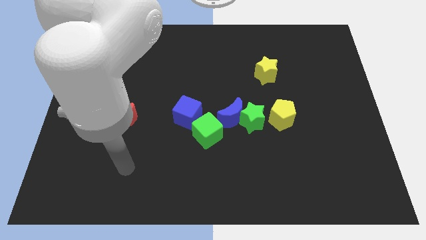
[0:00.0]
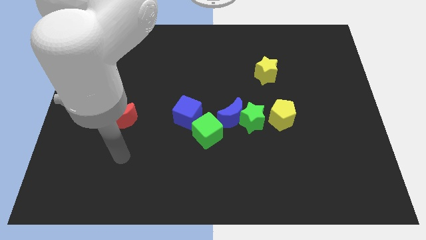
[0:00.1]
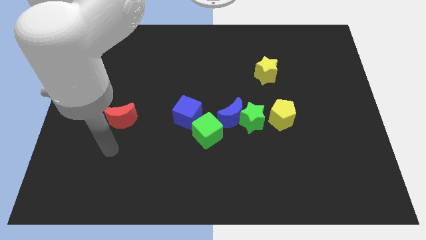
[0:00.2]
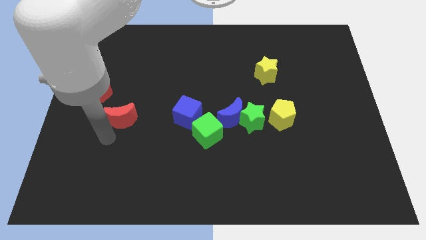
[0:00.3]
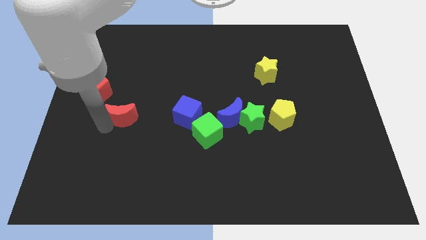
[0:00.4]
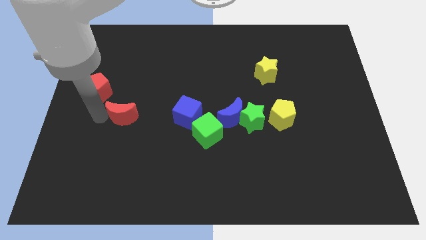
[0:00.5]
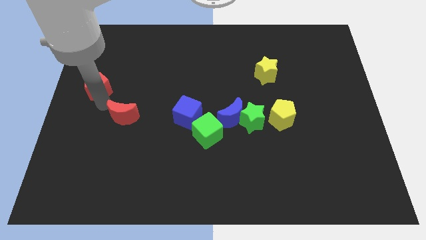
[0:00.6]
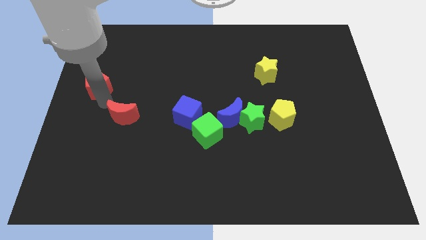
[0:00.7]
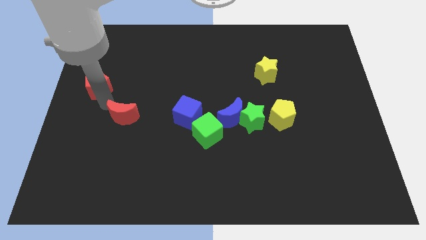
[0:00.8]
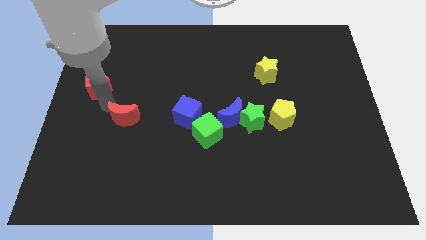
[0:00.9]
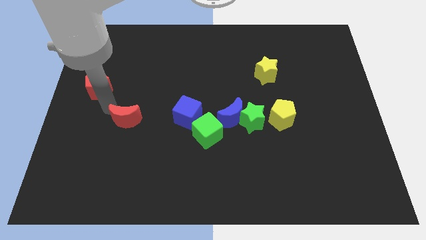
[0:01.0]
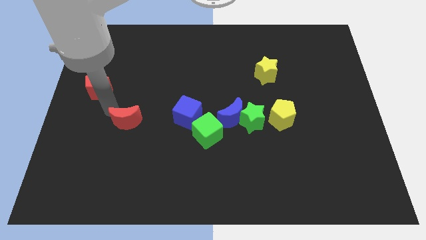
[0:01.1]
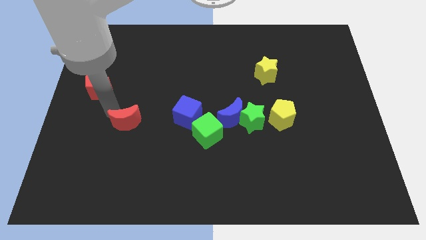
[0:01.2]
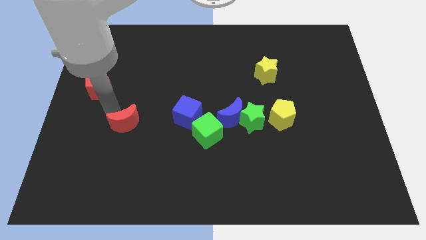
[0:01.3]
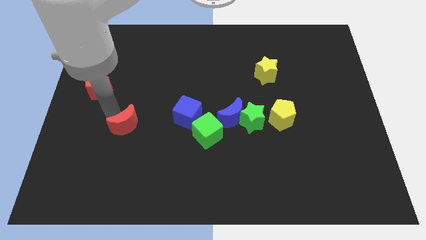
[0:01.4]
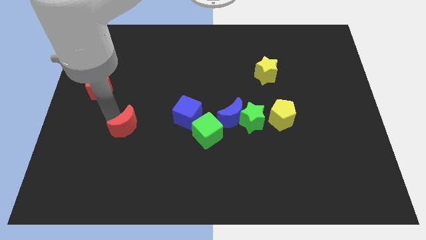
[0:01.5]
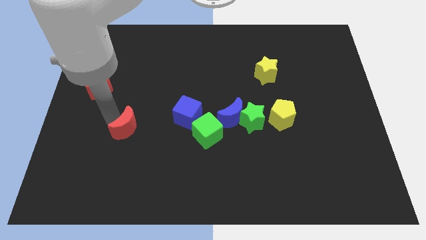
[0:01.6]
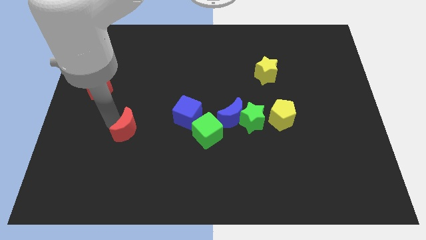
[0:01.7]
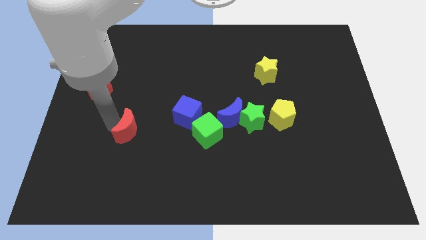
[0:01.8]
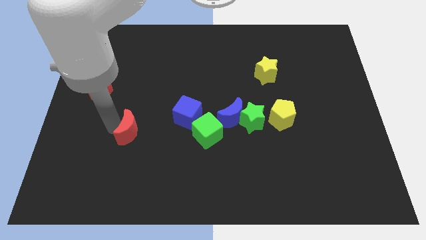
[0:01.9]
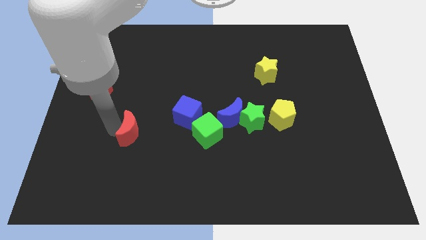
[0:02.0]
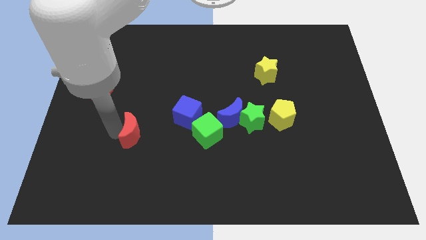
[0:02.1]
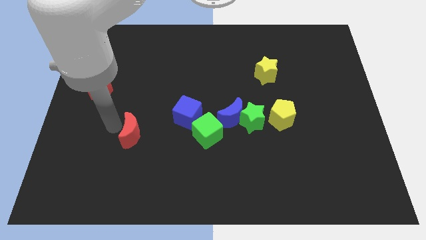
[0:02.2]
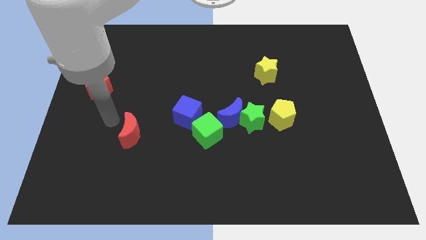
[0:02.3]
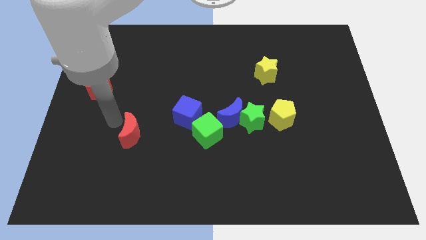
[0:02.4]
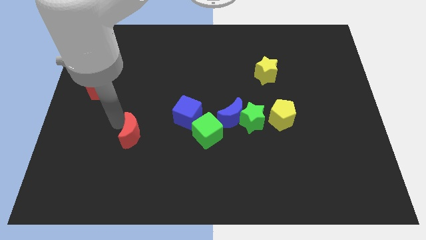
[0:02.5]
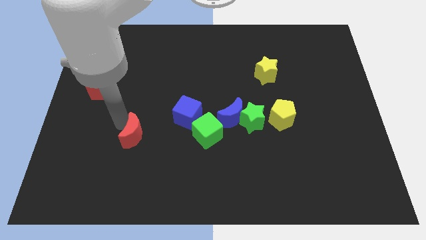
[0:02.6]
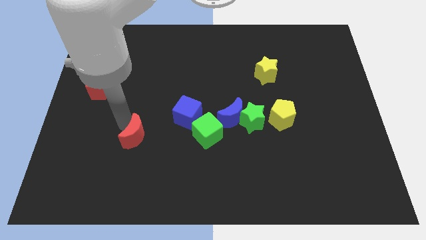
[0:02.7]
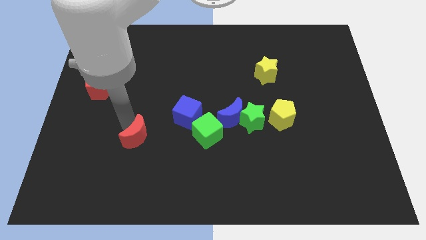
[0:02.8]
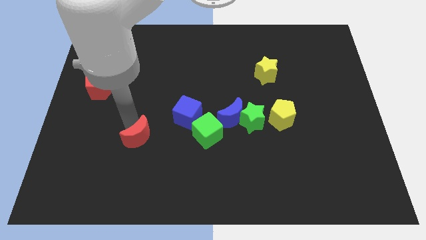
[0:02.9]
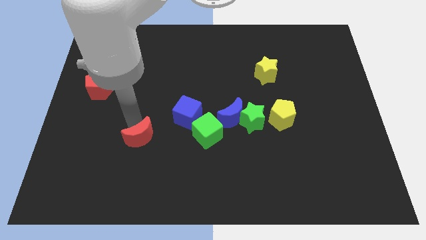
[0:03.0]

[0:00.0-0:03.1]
slide the red moon diagonally downwards and right slightly

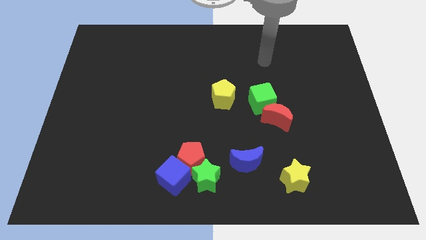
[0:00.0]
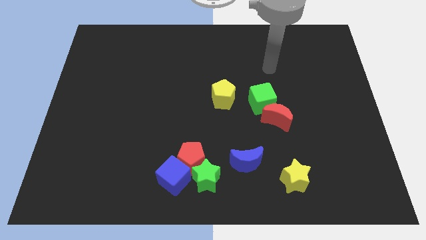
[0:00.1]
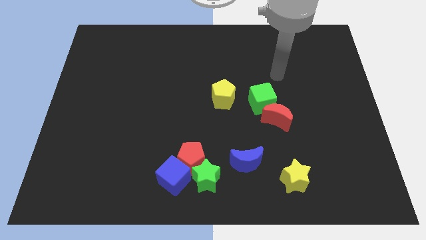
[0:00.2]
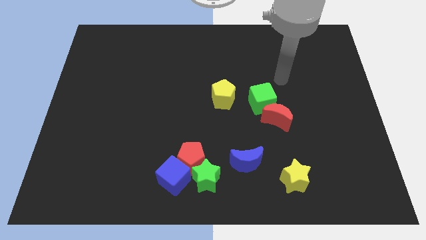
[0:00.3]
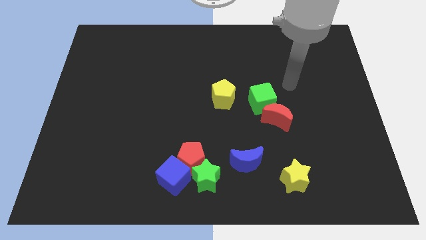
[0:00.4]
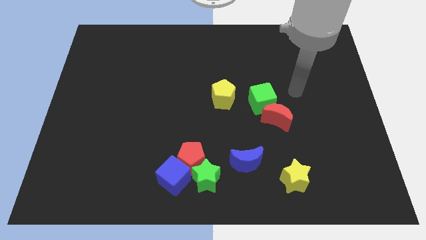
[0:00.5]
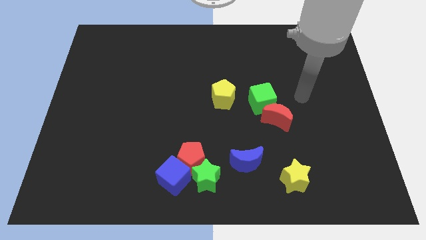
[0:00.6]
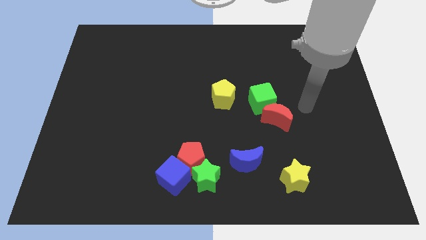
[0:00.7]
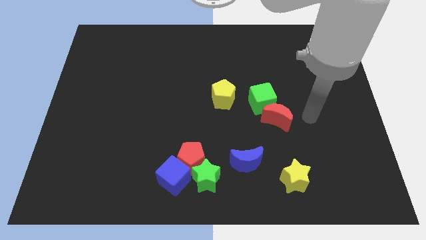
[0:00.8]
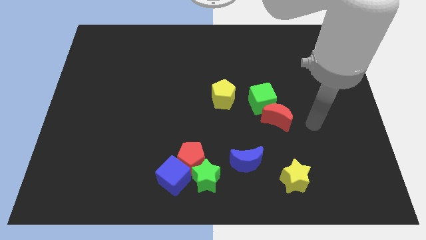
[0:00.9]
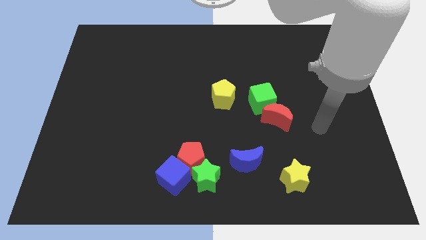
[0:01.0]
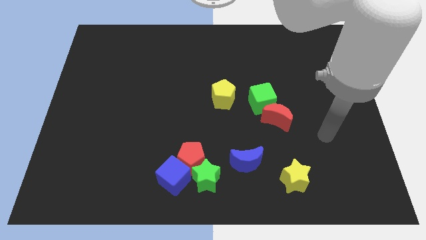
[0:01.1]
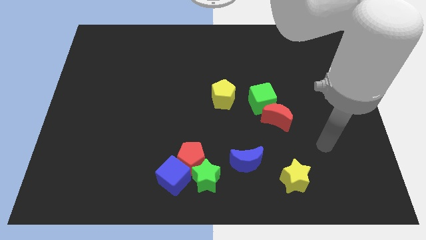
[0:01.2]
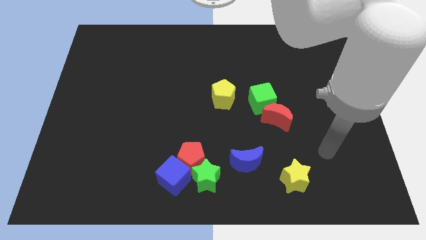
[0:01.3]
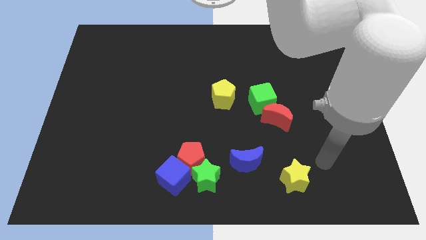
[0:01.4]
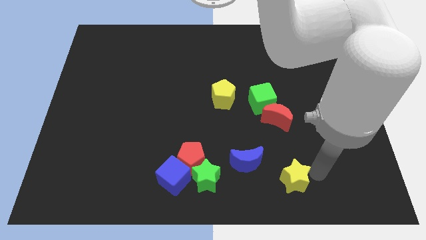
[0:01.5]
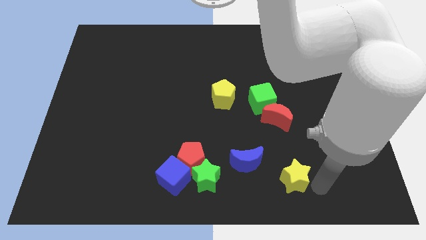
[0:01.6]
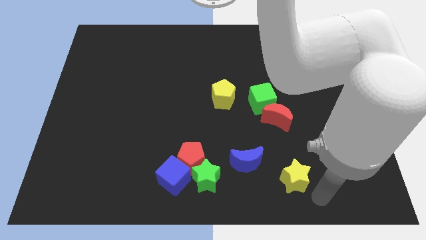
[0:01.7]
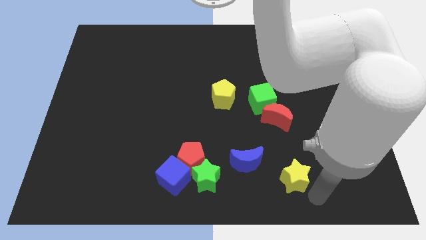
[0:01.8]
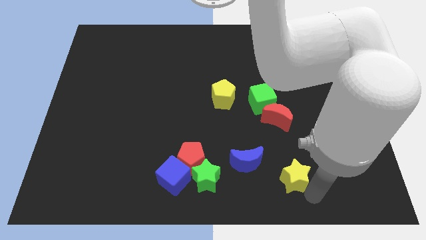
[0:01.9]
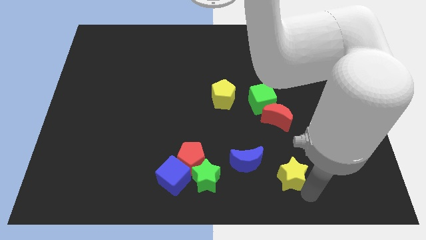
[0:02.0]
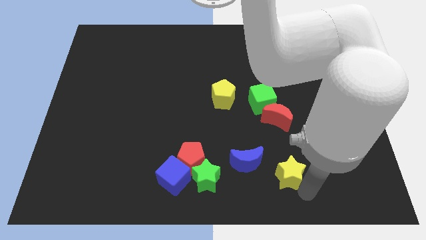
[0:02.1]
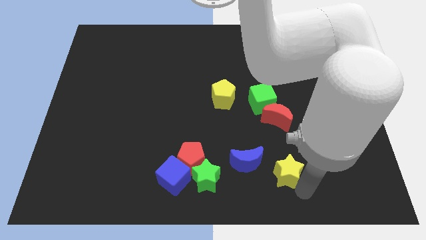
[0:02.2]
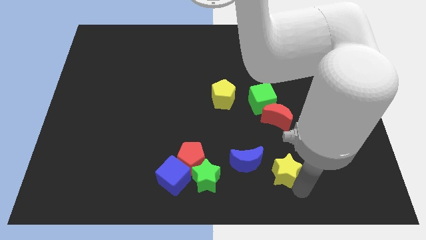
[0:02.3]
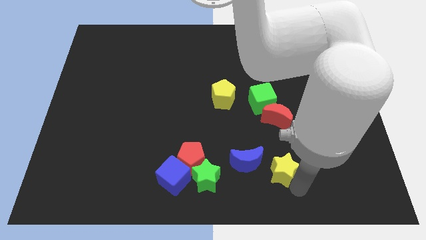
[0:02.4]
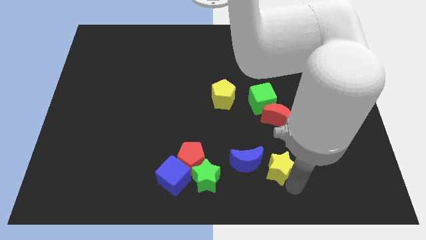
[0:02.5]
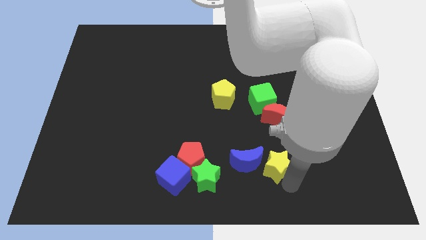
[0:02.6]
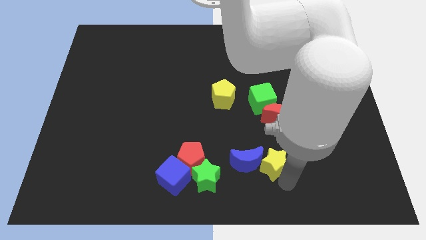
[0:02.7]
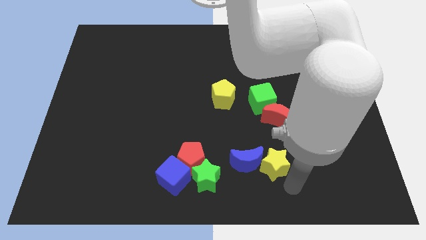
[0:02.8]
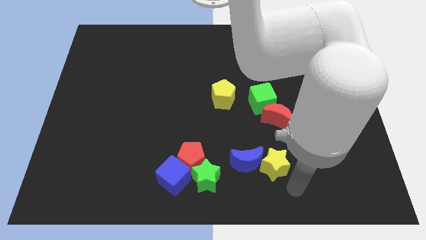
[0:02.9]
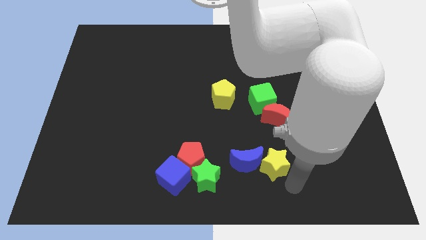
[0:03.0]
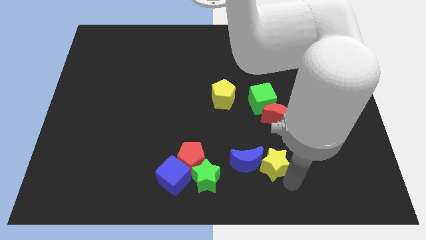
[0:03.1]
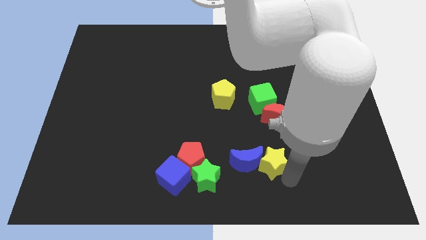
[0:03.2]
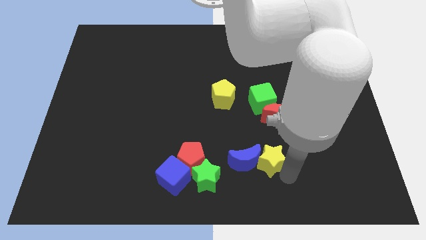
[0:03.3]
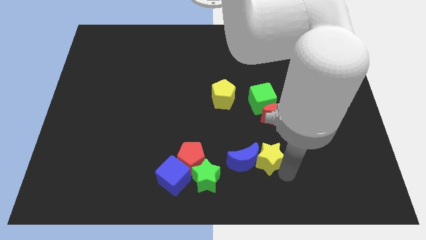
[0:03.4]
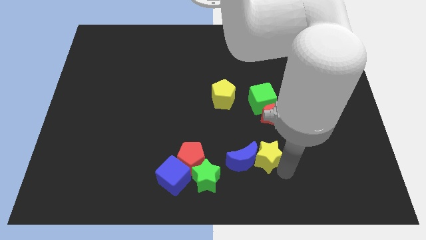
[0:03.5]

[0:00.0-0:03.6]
slightly slide the yellow star upwards and then left

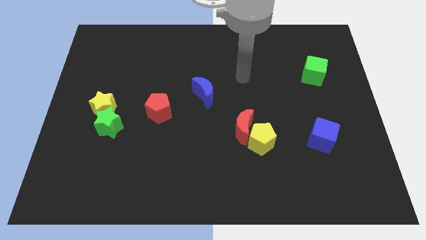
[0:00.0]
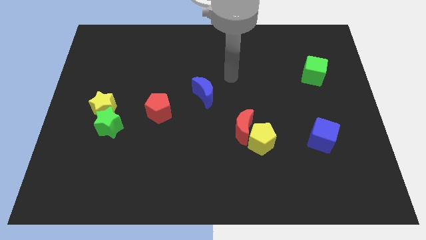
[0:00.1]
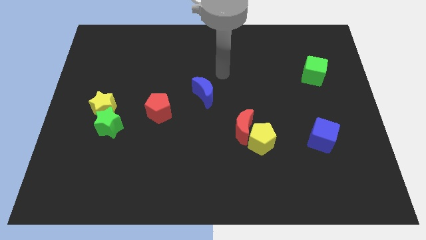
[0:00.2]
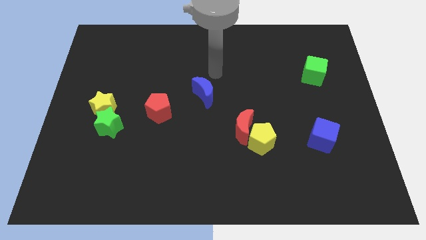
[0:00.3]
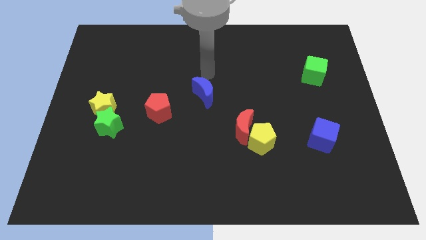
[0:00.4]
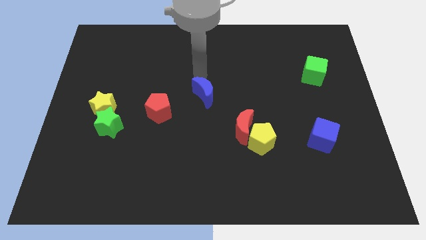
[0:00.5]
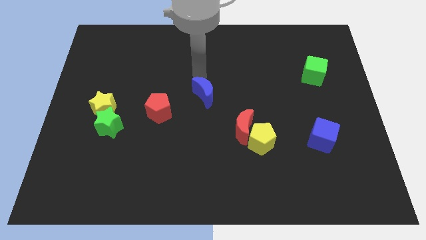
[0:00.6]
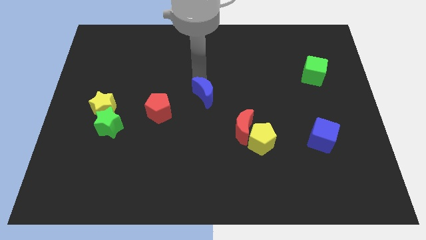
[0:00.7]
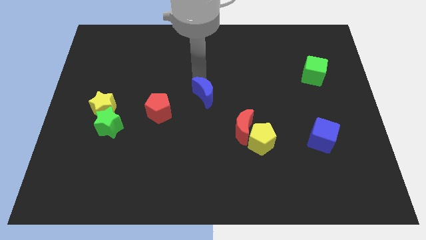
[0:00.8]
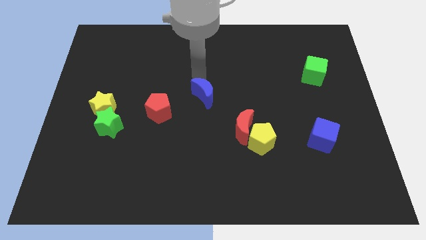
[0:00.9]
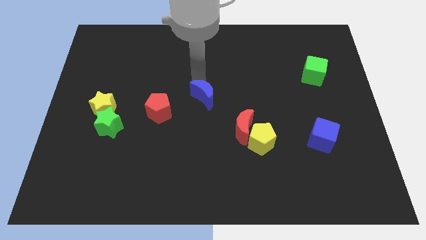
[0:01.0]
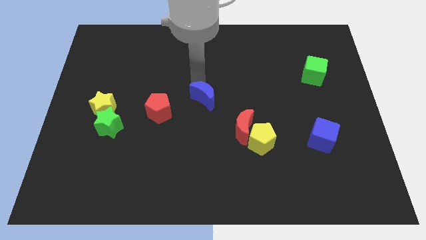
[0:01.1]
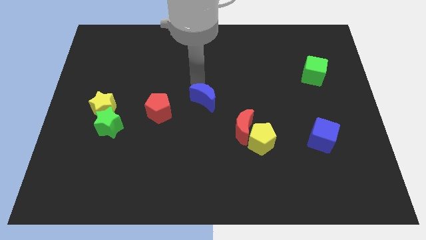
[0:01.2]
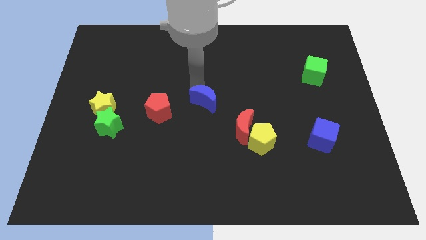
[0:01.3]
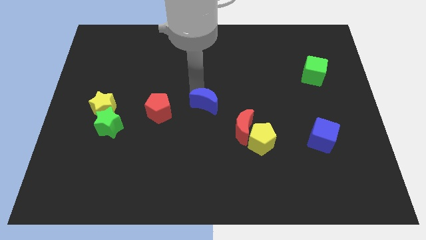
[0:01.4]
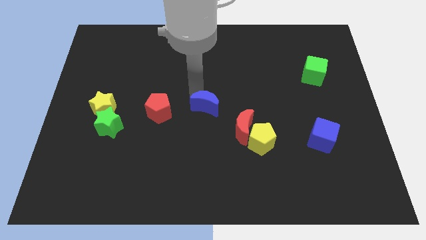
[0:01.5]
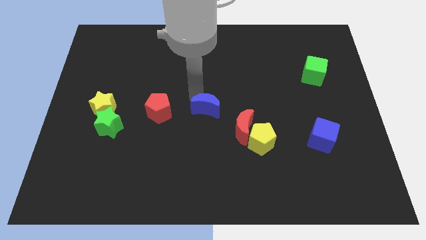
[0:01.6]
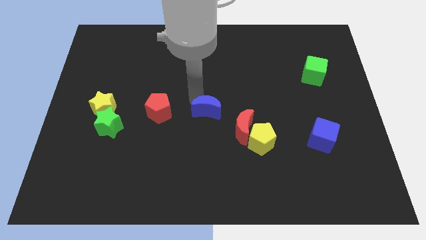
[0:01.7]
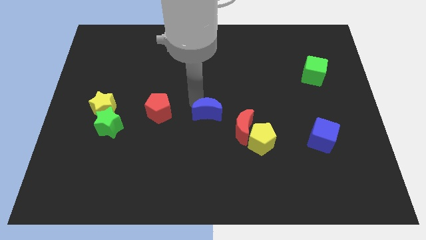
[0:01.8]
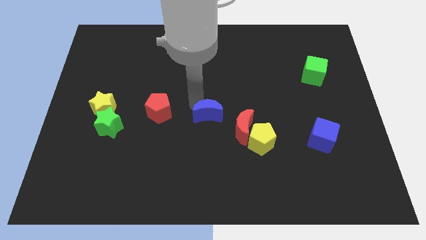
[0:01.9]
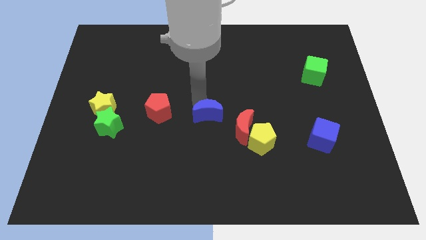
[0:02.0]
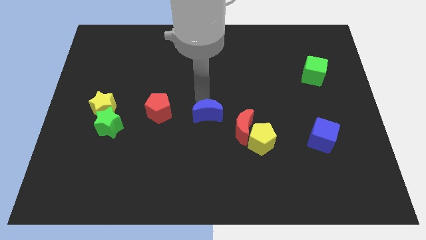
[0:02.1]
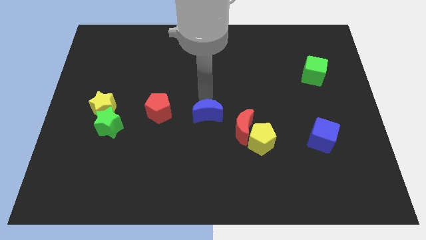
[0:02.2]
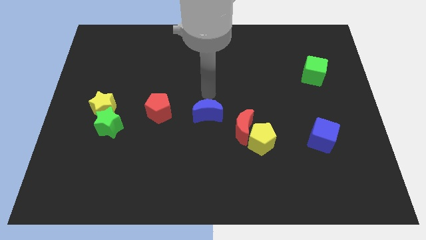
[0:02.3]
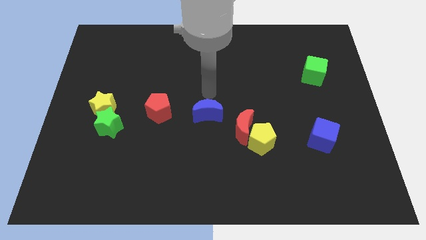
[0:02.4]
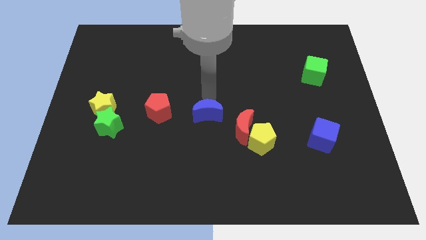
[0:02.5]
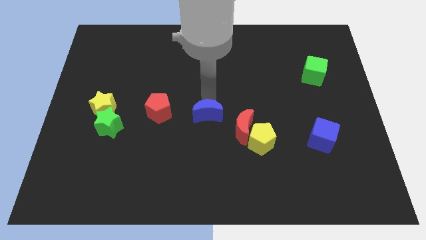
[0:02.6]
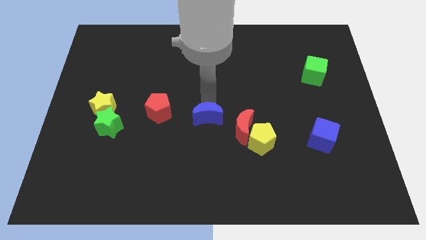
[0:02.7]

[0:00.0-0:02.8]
slide the blue moon somewhat down
